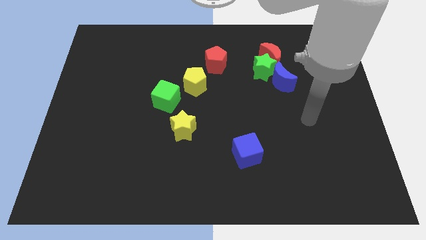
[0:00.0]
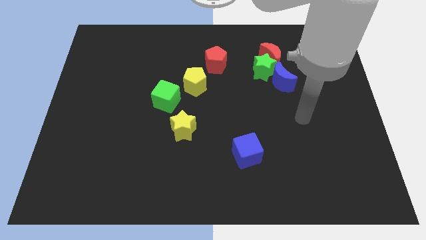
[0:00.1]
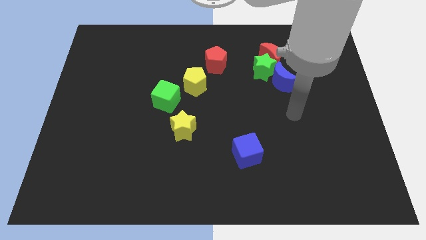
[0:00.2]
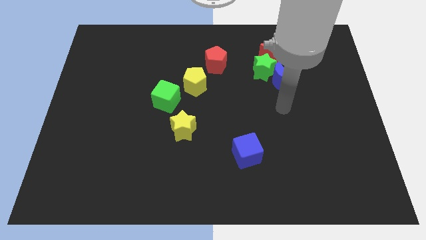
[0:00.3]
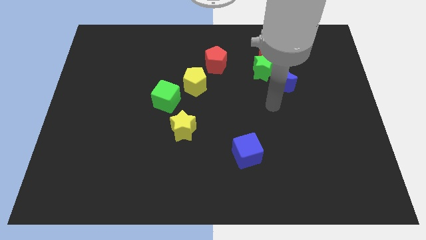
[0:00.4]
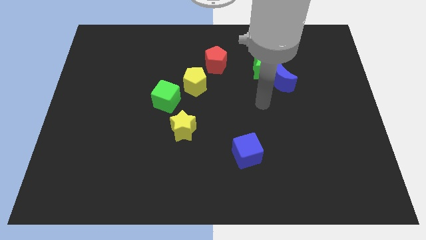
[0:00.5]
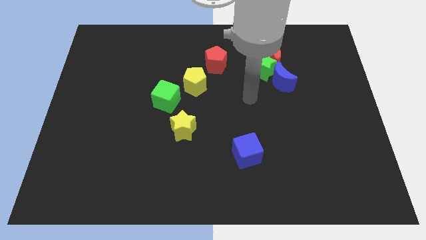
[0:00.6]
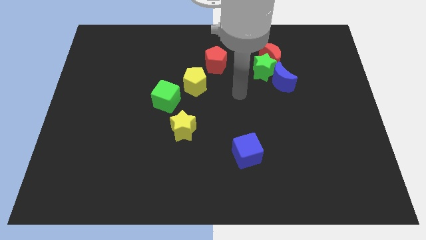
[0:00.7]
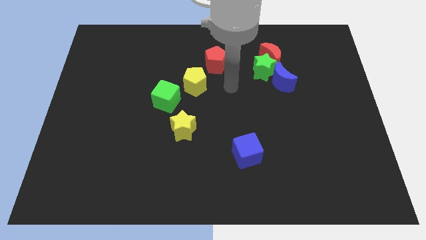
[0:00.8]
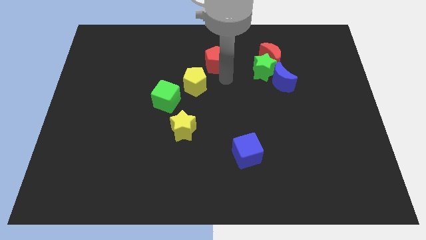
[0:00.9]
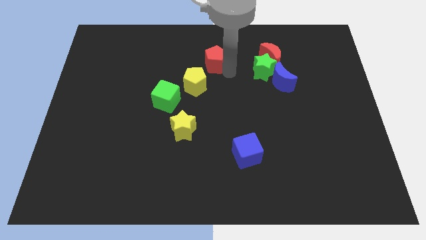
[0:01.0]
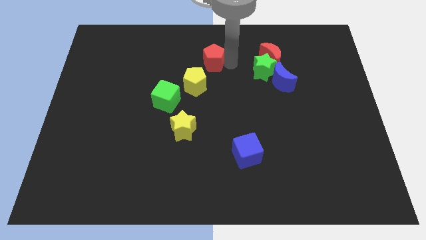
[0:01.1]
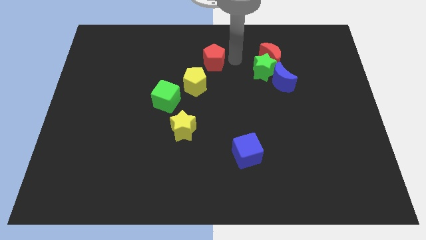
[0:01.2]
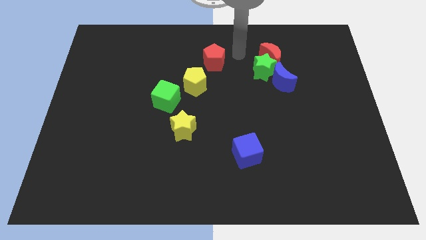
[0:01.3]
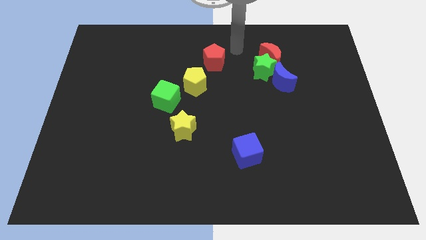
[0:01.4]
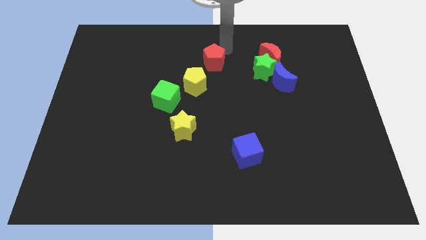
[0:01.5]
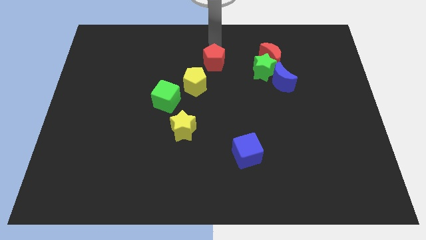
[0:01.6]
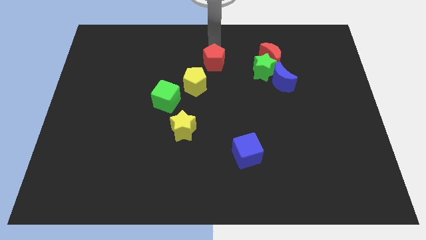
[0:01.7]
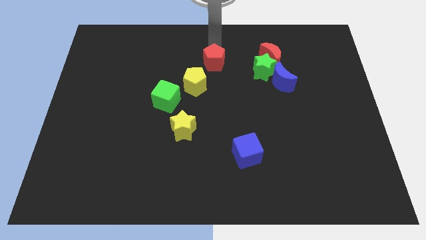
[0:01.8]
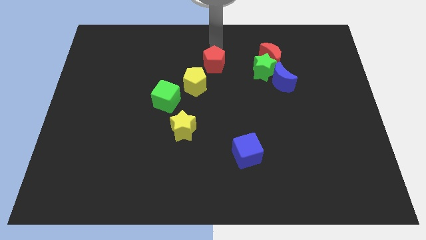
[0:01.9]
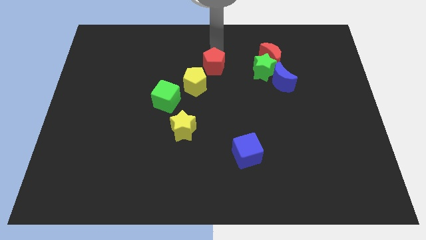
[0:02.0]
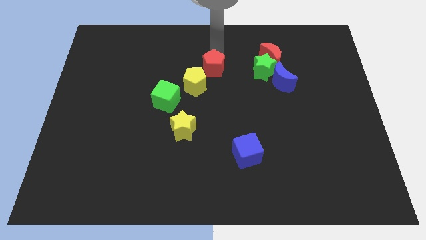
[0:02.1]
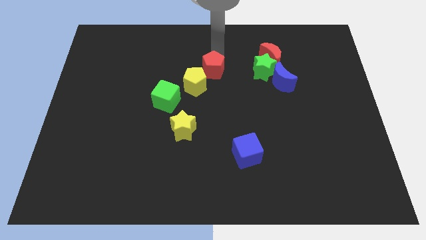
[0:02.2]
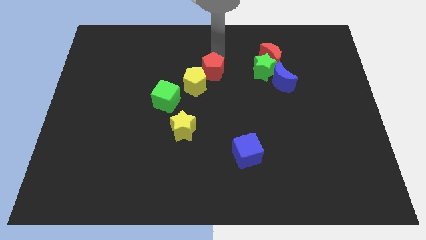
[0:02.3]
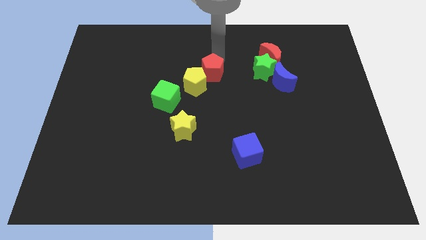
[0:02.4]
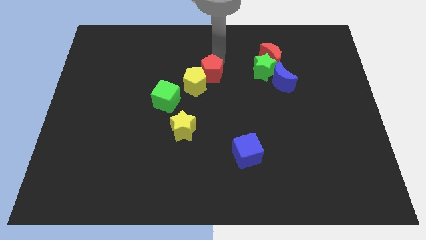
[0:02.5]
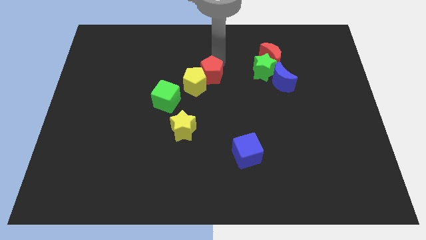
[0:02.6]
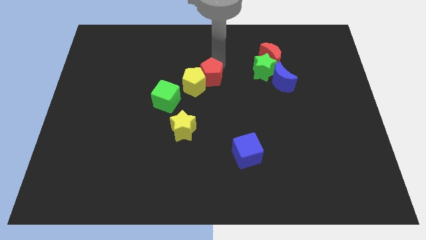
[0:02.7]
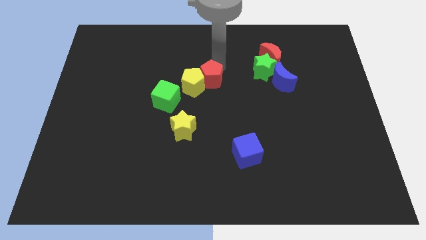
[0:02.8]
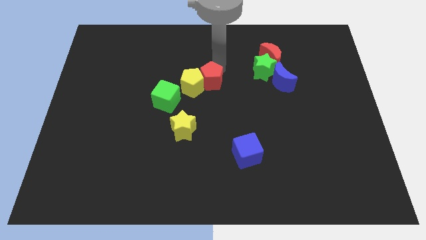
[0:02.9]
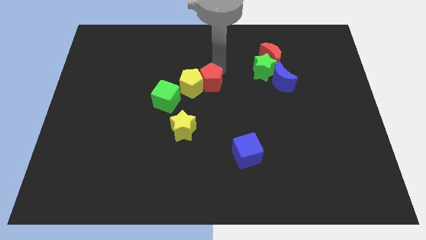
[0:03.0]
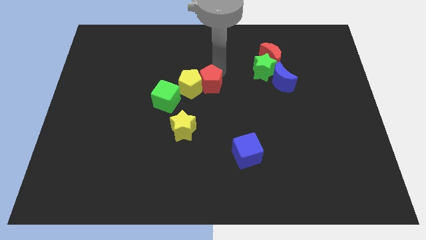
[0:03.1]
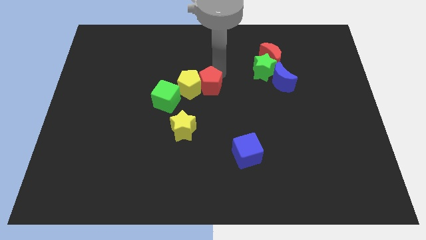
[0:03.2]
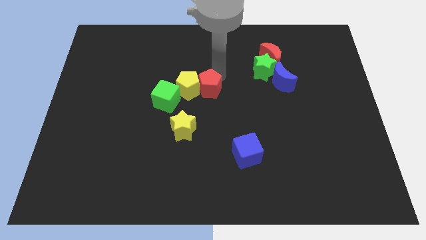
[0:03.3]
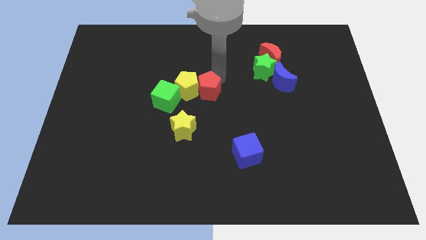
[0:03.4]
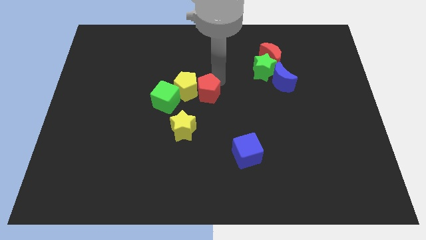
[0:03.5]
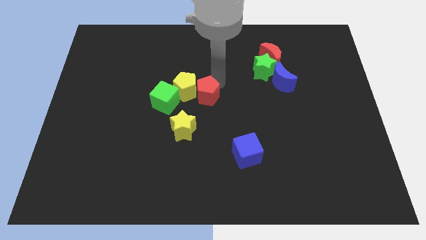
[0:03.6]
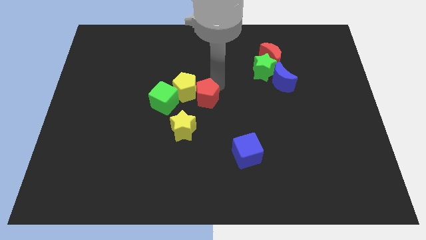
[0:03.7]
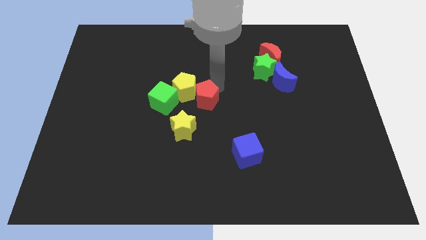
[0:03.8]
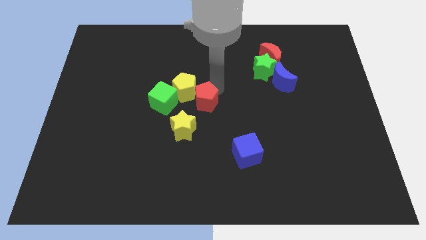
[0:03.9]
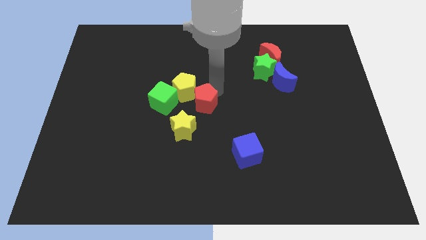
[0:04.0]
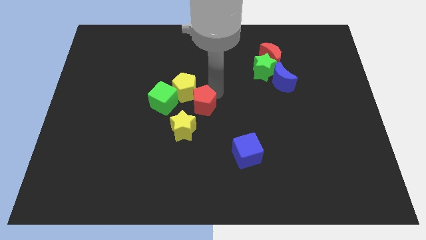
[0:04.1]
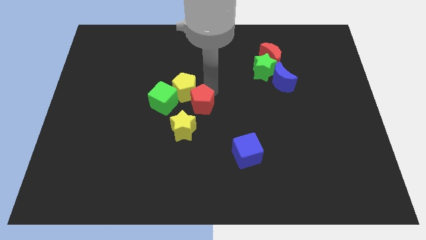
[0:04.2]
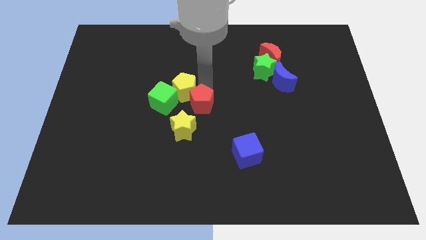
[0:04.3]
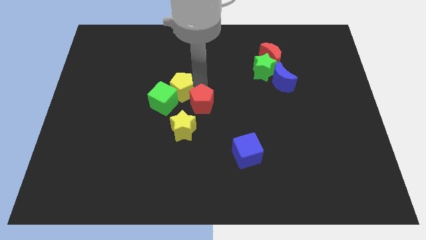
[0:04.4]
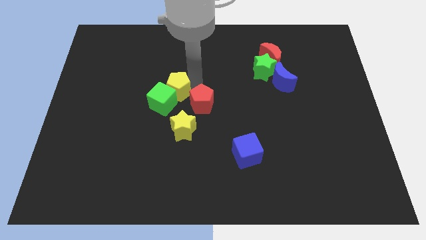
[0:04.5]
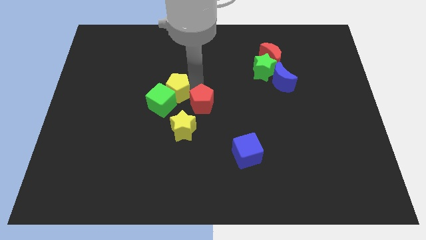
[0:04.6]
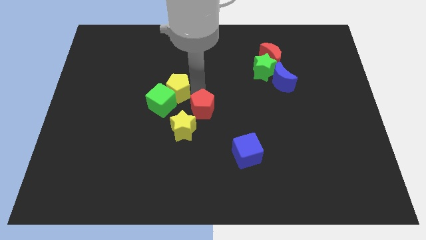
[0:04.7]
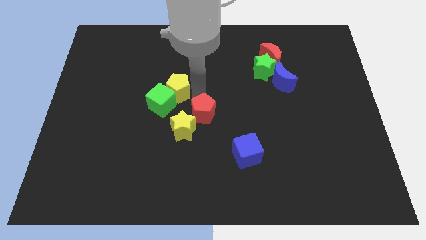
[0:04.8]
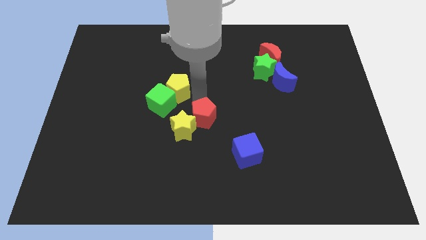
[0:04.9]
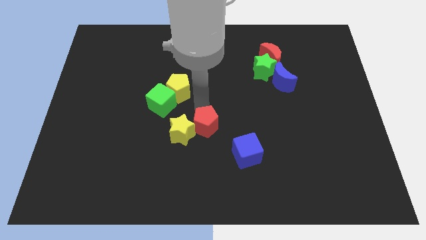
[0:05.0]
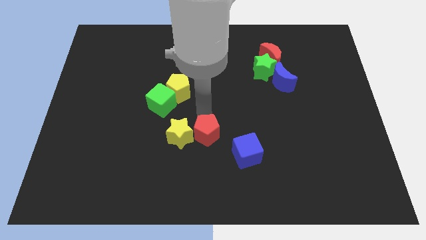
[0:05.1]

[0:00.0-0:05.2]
slide the red pentagon to the bottom right of the yellow star

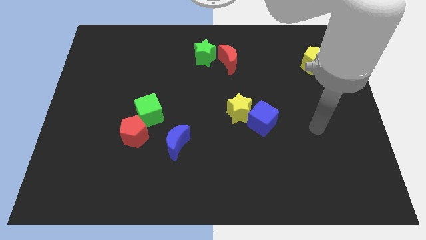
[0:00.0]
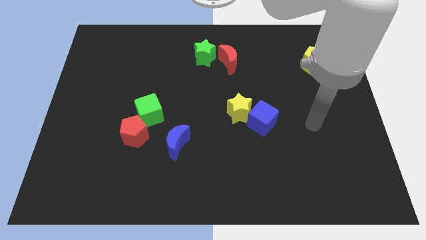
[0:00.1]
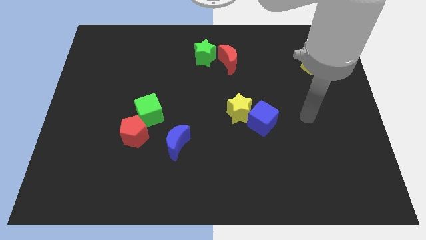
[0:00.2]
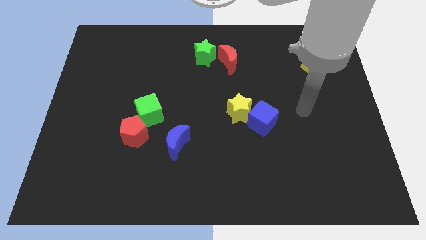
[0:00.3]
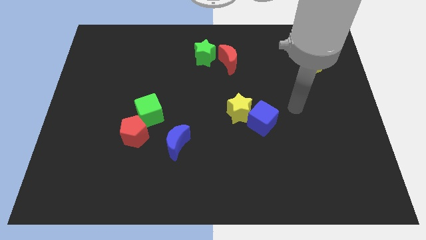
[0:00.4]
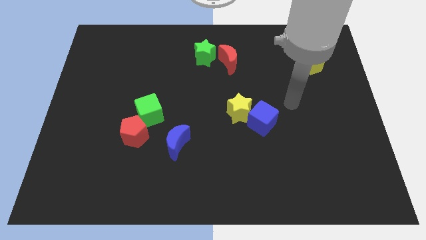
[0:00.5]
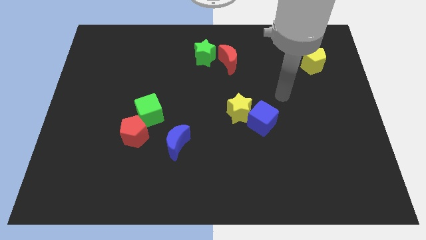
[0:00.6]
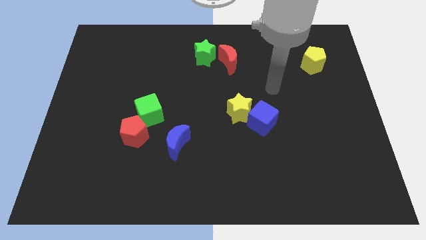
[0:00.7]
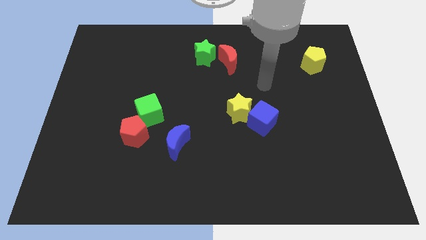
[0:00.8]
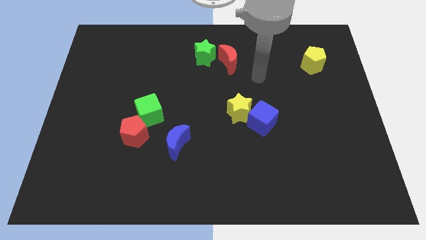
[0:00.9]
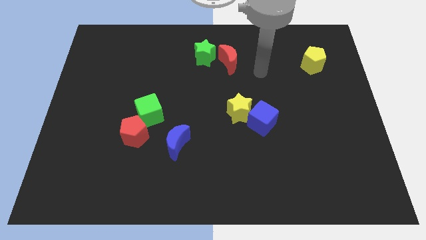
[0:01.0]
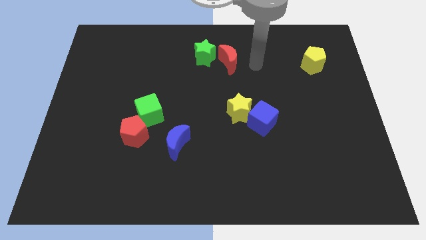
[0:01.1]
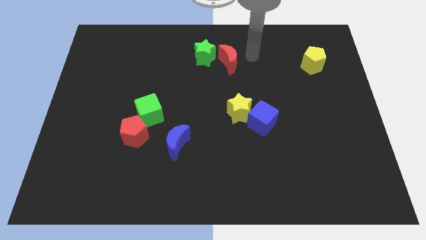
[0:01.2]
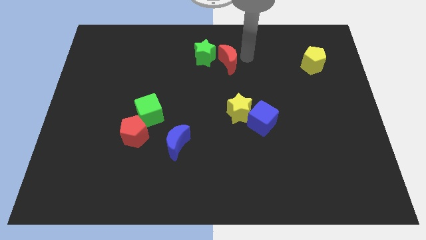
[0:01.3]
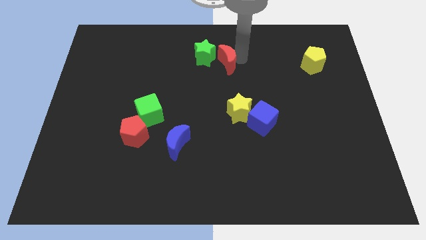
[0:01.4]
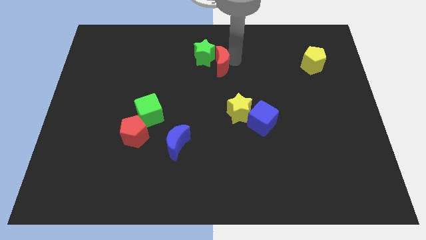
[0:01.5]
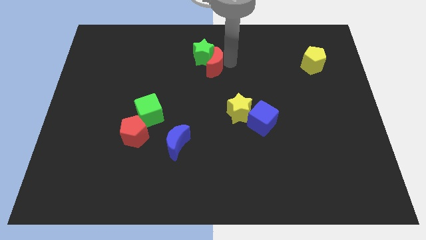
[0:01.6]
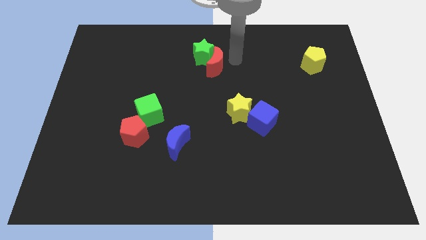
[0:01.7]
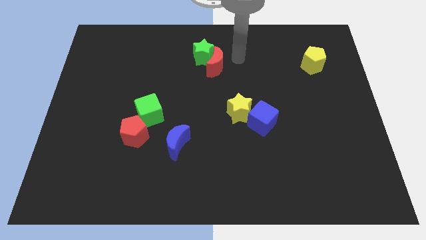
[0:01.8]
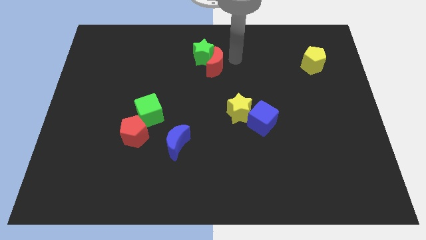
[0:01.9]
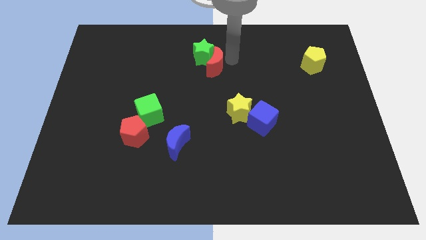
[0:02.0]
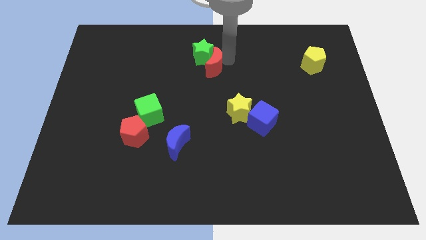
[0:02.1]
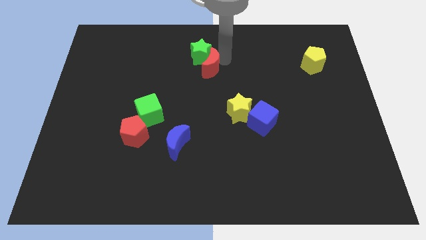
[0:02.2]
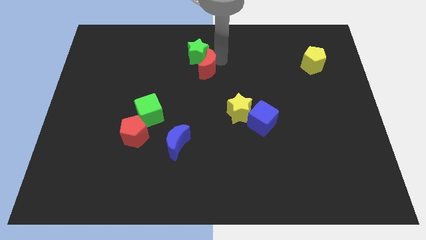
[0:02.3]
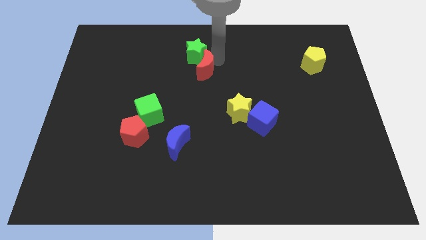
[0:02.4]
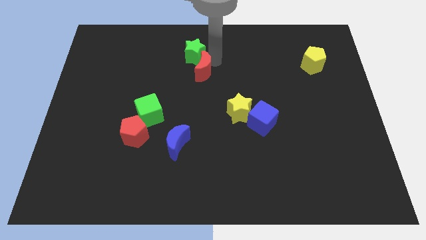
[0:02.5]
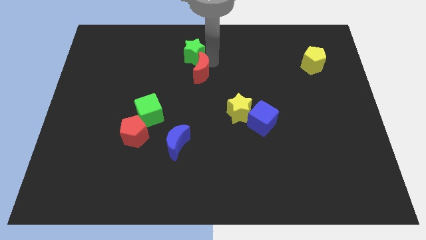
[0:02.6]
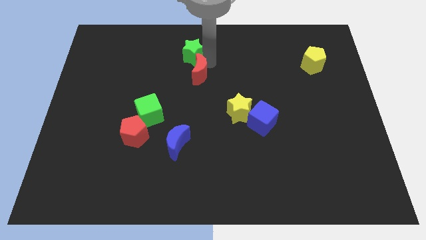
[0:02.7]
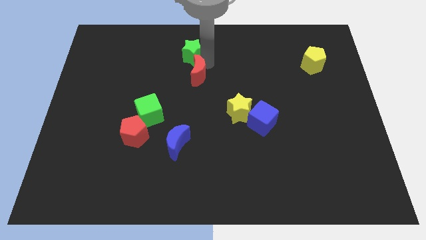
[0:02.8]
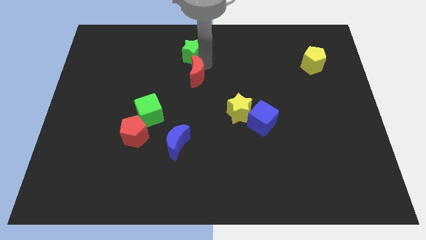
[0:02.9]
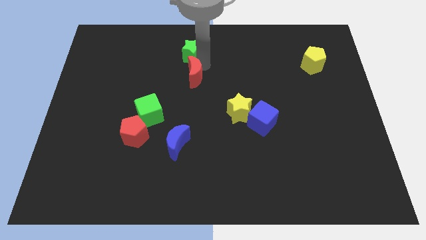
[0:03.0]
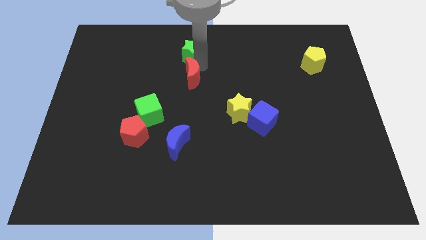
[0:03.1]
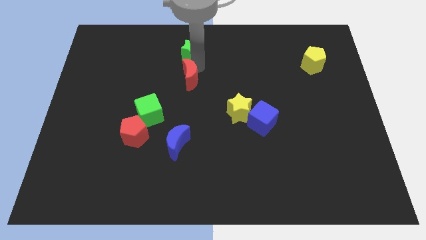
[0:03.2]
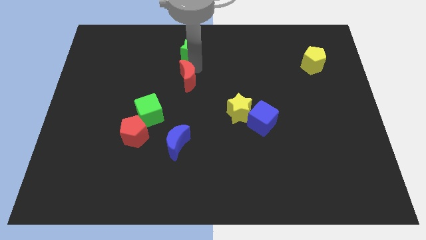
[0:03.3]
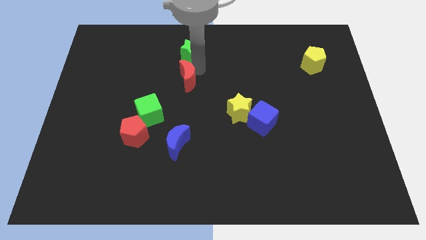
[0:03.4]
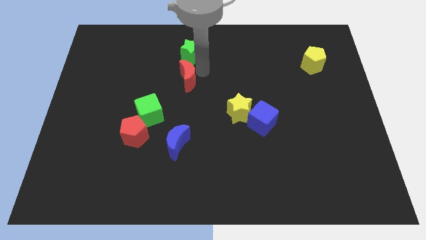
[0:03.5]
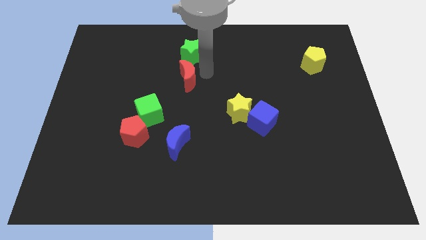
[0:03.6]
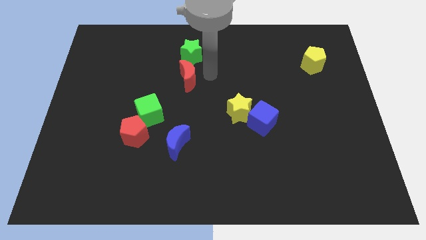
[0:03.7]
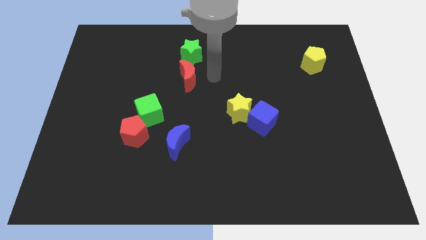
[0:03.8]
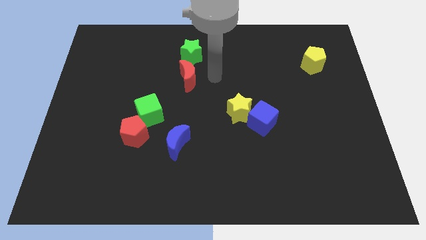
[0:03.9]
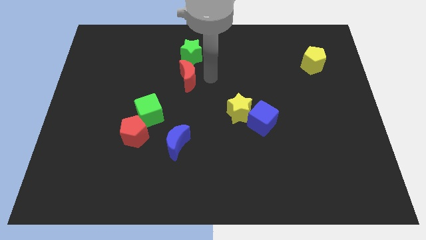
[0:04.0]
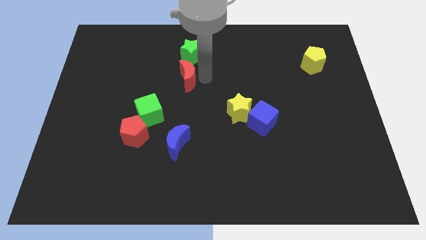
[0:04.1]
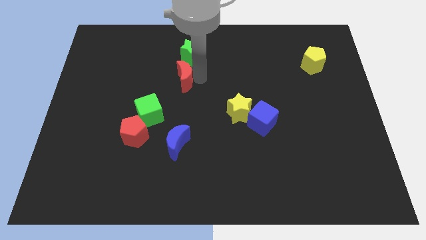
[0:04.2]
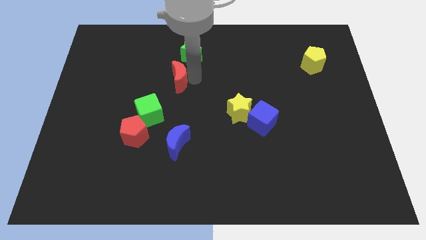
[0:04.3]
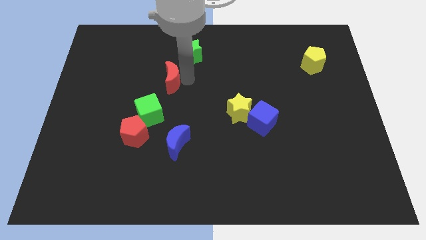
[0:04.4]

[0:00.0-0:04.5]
put the red moon to the top of the green cube
